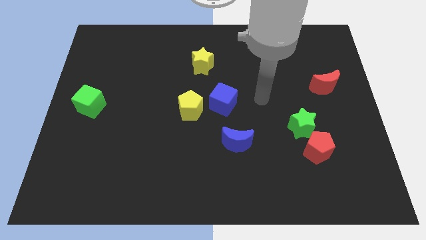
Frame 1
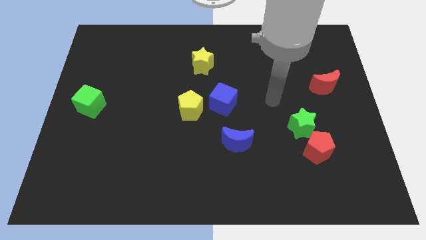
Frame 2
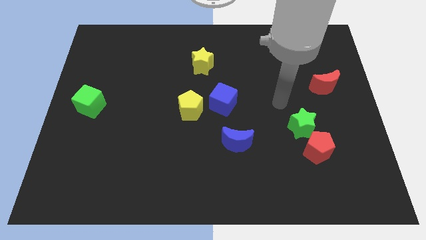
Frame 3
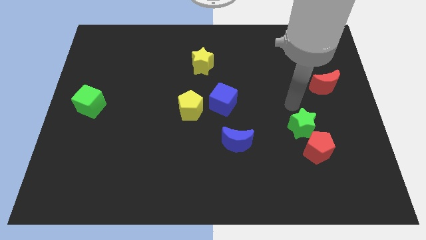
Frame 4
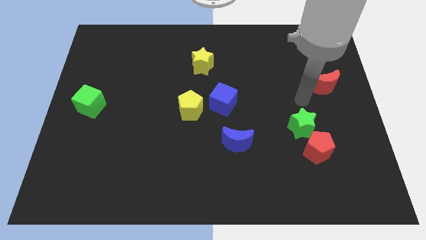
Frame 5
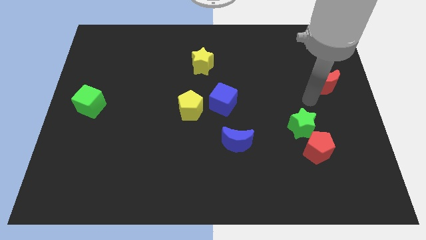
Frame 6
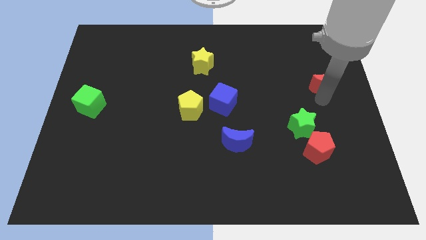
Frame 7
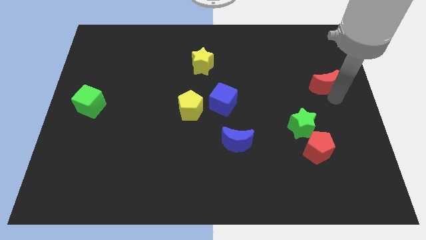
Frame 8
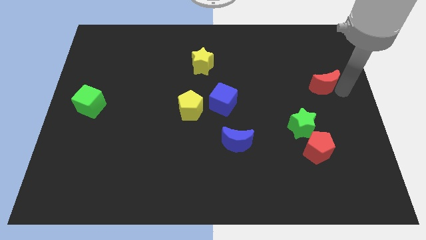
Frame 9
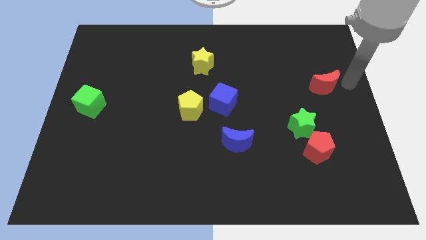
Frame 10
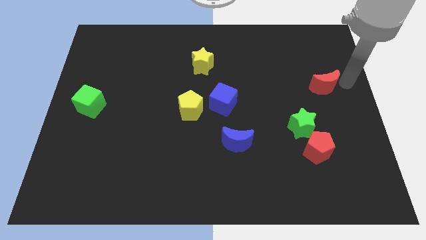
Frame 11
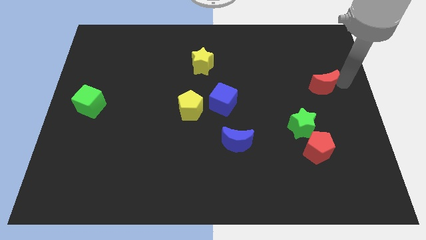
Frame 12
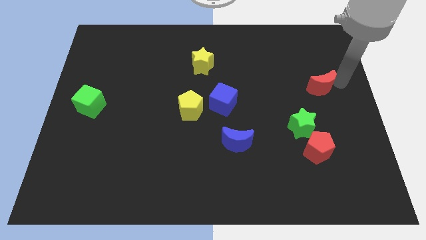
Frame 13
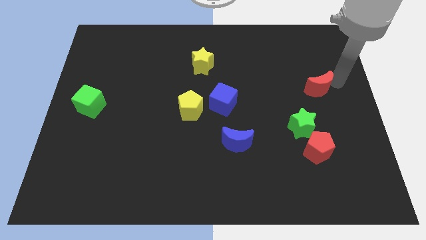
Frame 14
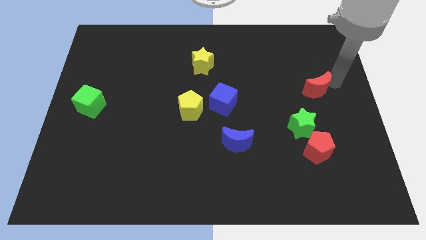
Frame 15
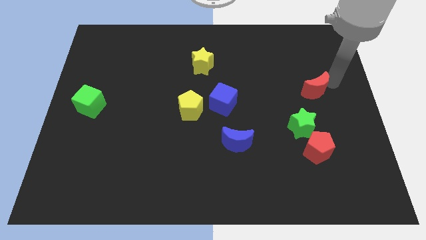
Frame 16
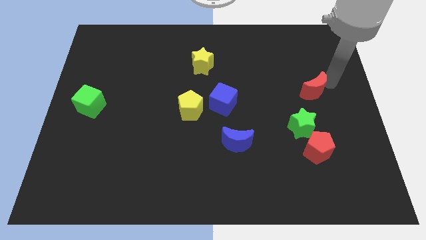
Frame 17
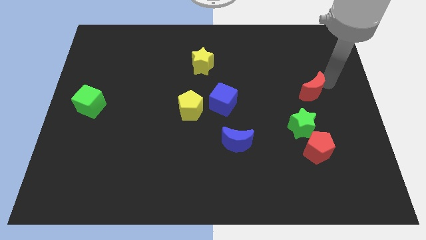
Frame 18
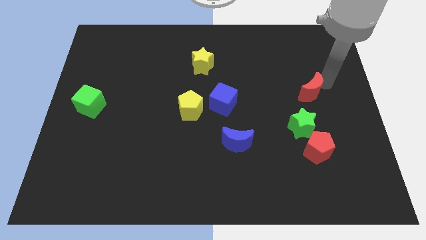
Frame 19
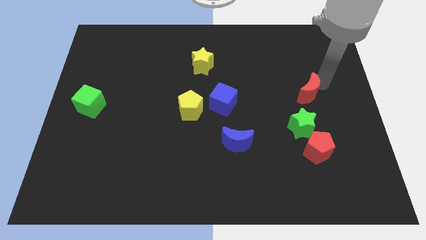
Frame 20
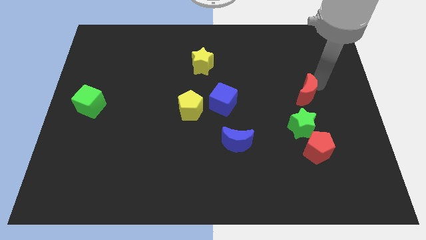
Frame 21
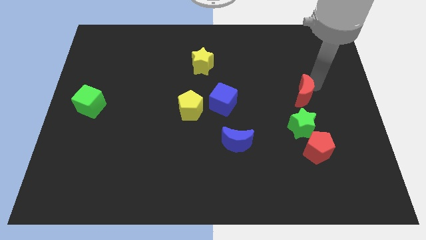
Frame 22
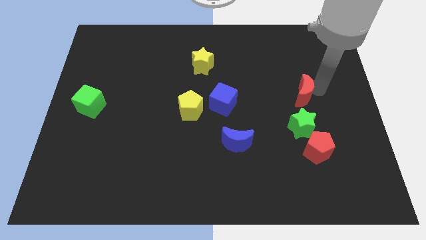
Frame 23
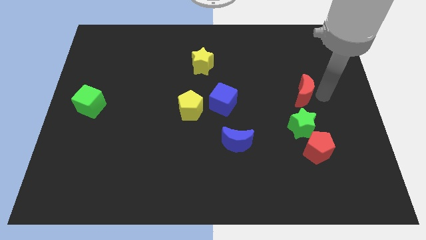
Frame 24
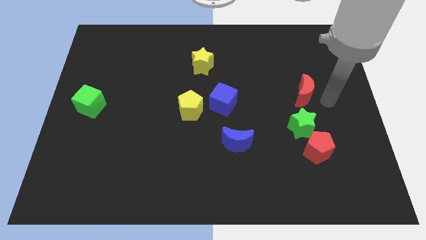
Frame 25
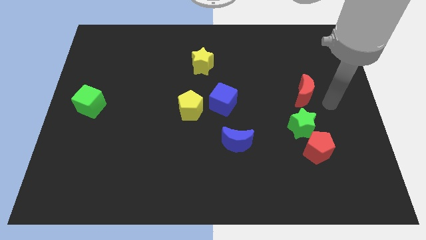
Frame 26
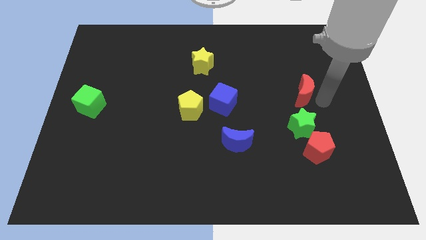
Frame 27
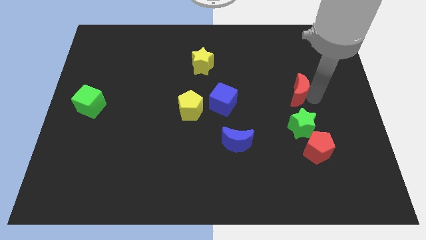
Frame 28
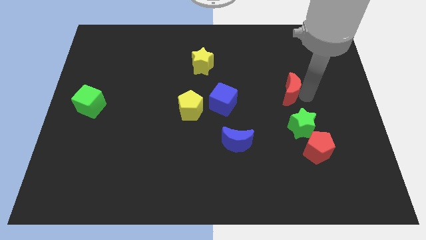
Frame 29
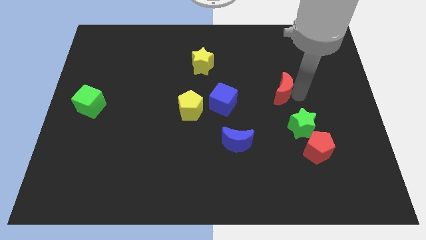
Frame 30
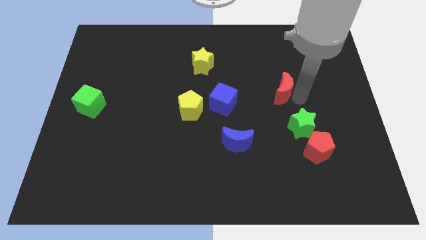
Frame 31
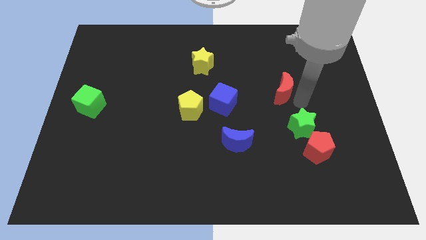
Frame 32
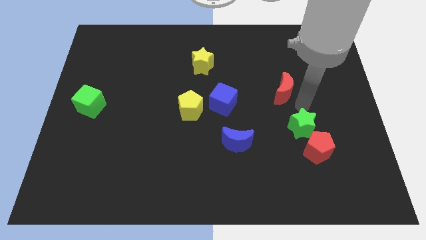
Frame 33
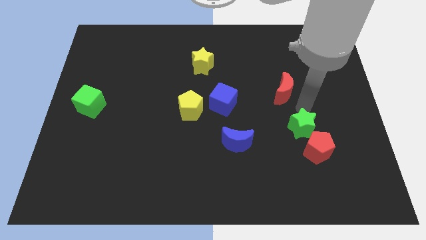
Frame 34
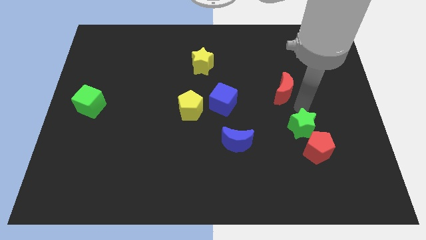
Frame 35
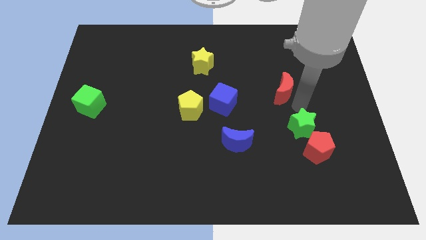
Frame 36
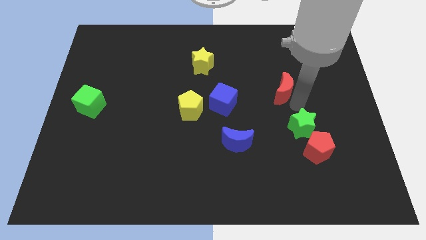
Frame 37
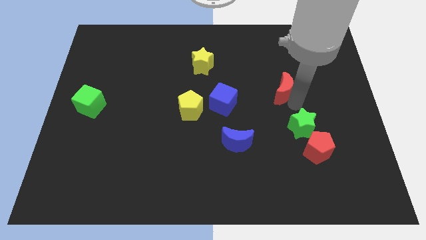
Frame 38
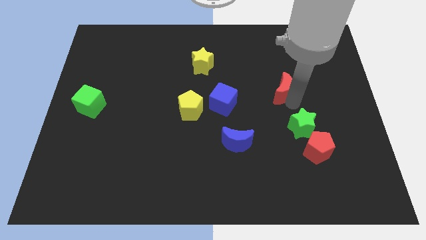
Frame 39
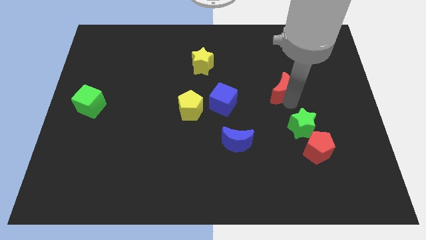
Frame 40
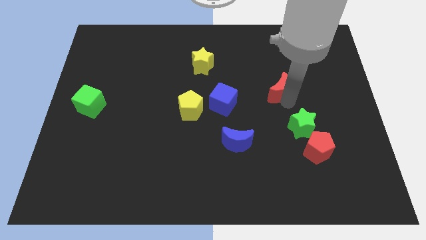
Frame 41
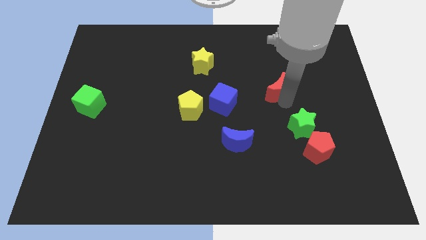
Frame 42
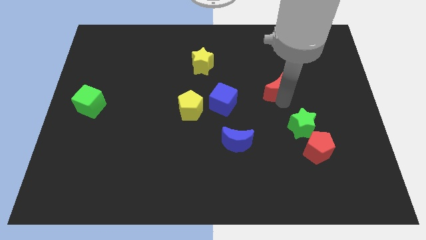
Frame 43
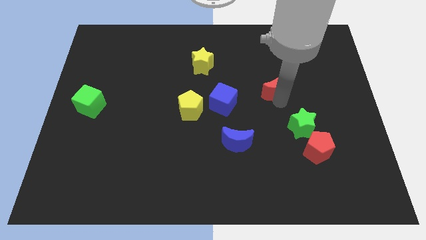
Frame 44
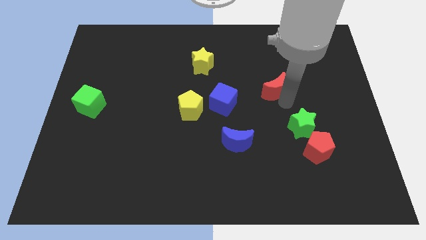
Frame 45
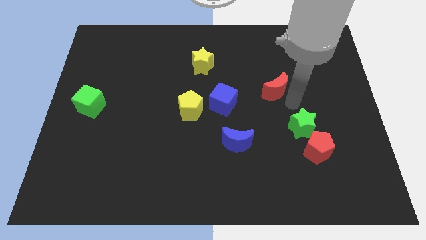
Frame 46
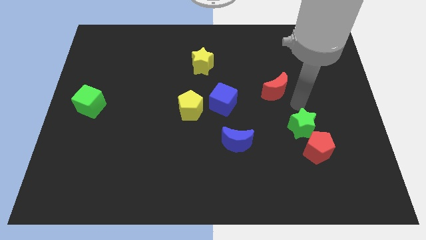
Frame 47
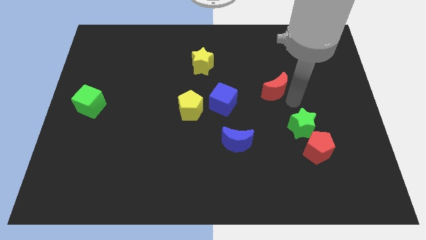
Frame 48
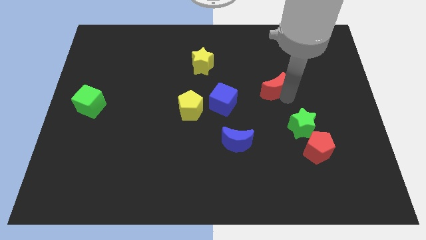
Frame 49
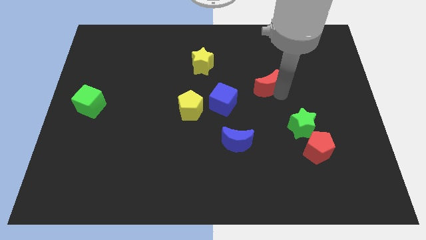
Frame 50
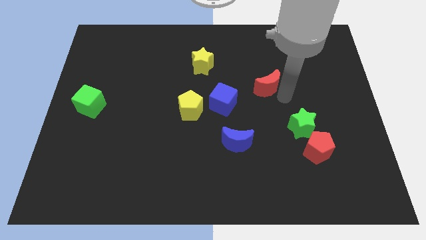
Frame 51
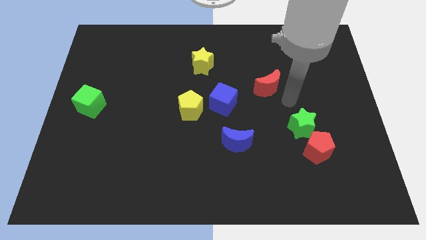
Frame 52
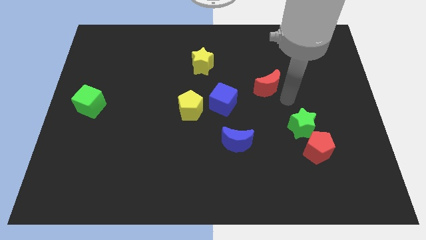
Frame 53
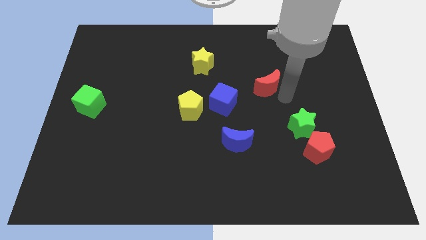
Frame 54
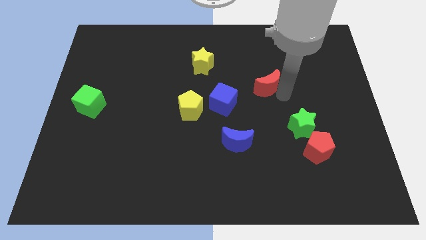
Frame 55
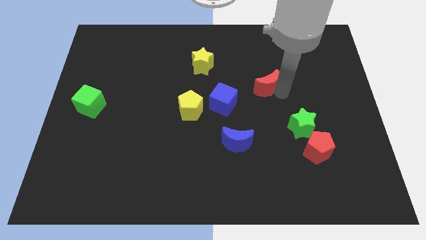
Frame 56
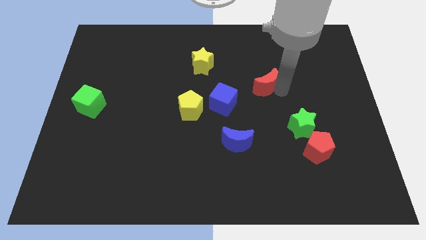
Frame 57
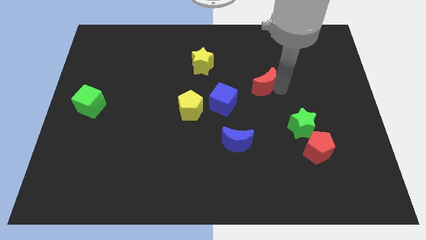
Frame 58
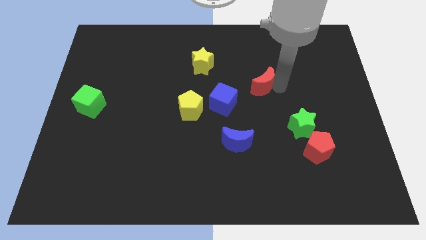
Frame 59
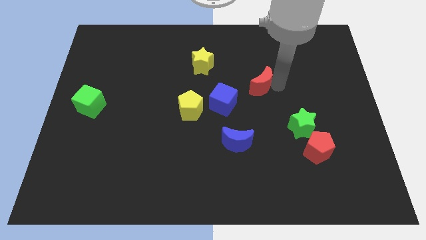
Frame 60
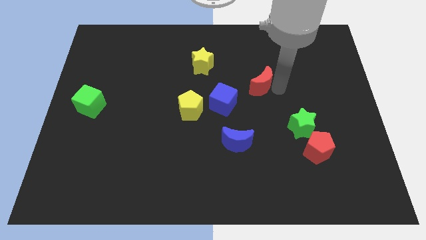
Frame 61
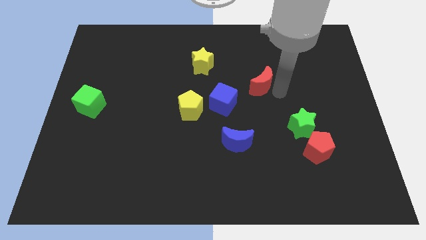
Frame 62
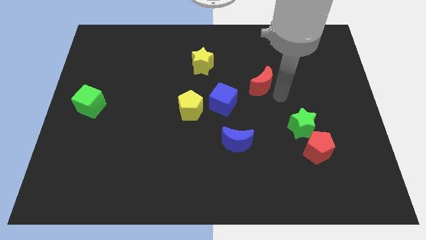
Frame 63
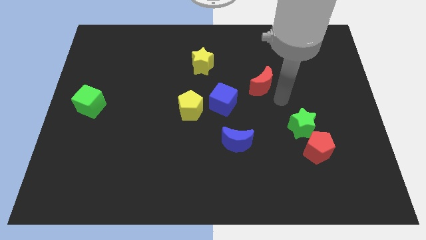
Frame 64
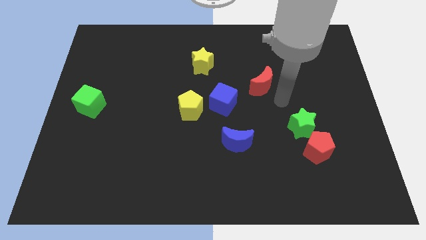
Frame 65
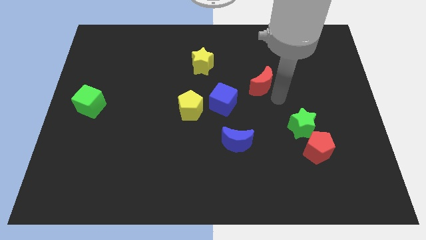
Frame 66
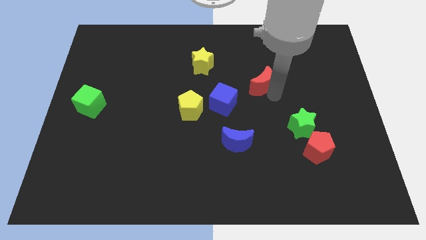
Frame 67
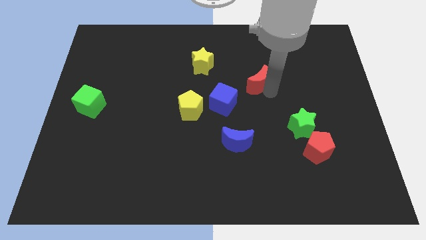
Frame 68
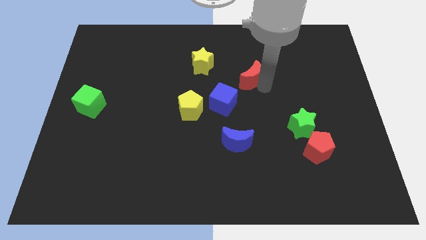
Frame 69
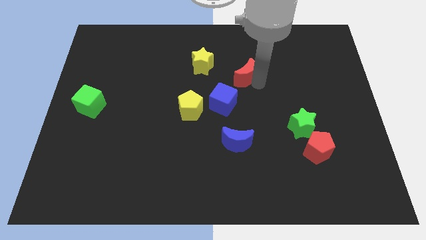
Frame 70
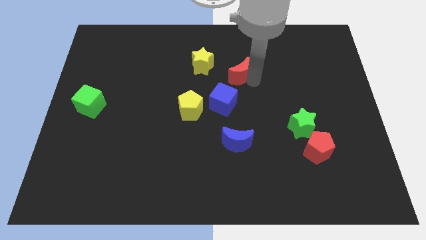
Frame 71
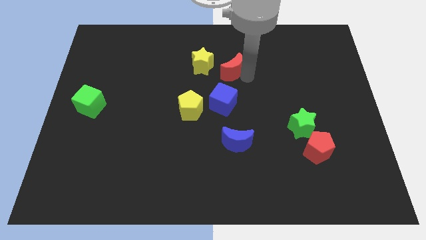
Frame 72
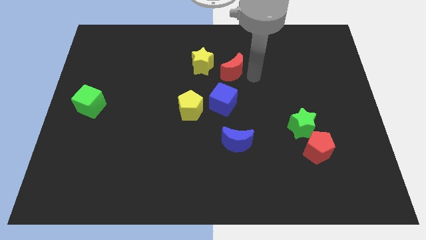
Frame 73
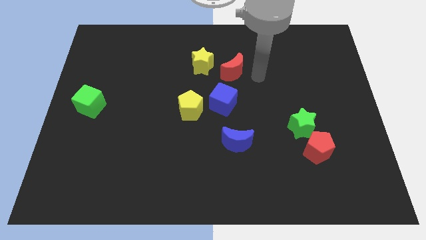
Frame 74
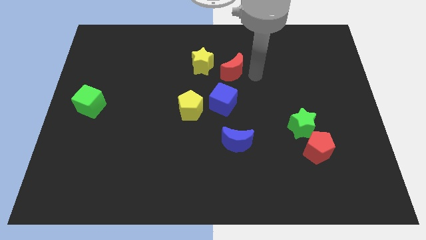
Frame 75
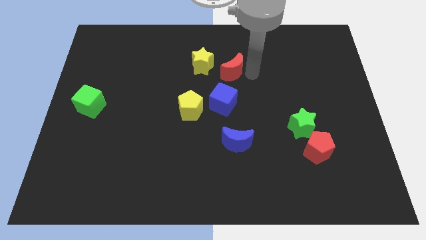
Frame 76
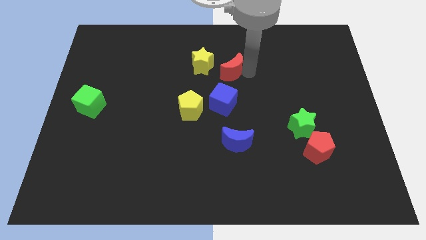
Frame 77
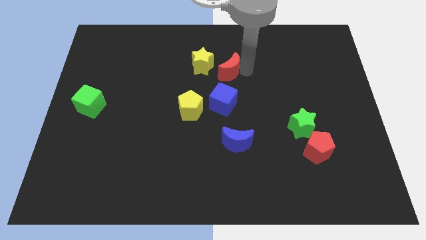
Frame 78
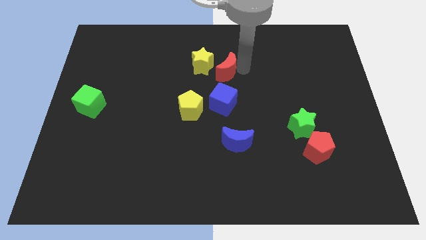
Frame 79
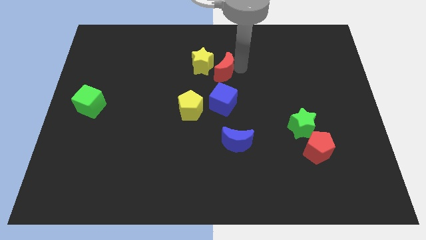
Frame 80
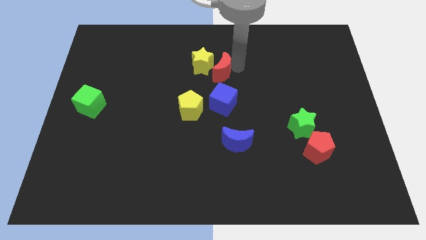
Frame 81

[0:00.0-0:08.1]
move the red moon to the yellow star
